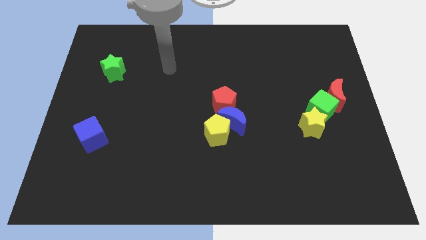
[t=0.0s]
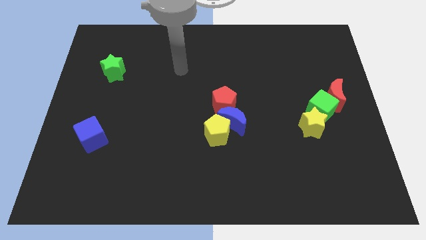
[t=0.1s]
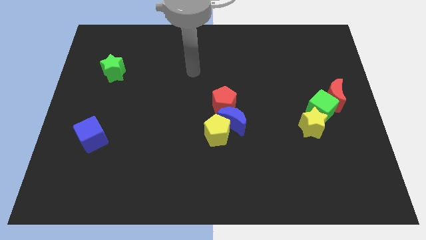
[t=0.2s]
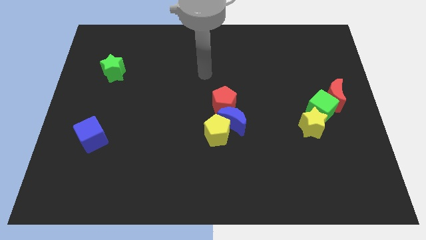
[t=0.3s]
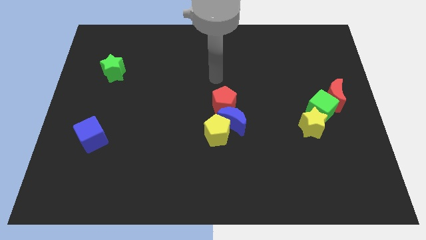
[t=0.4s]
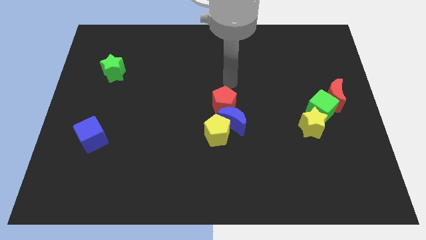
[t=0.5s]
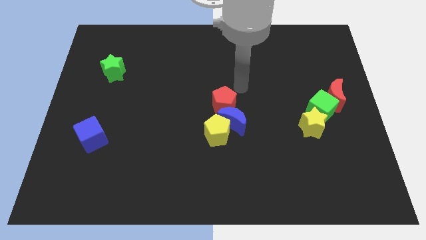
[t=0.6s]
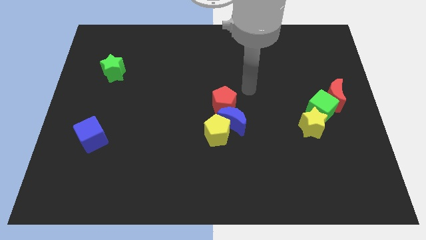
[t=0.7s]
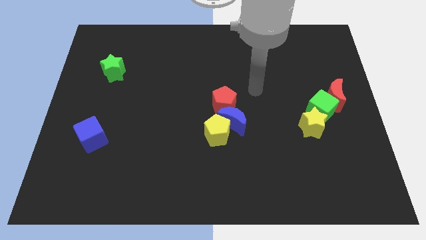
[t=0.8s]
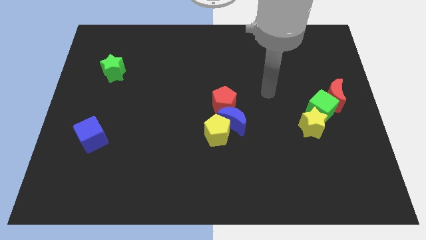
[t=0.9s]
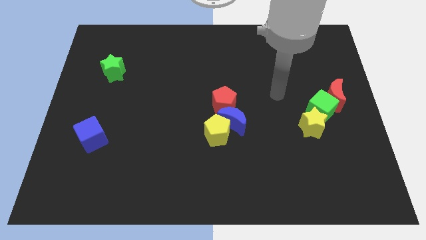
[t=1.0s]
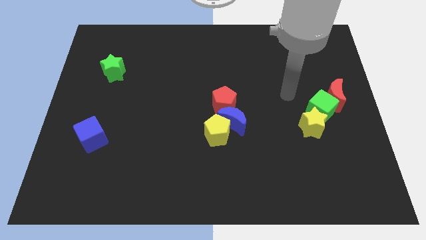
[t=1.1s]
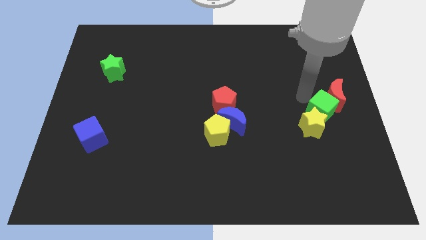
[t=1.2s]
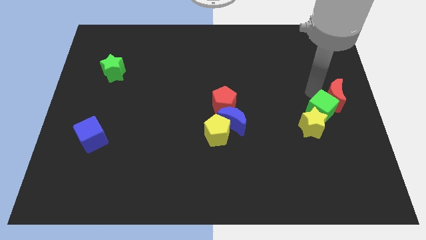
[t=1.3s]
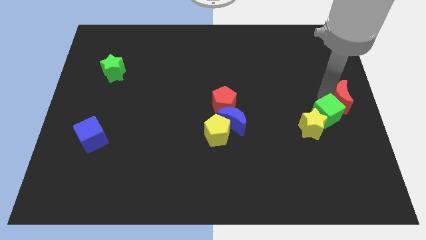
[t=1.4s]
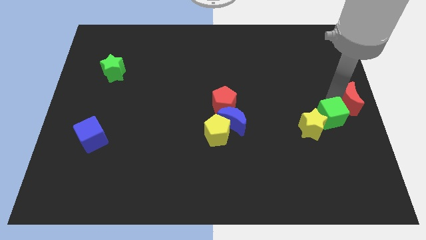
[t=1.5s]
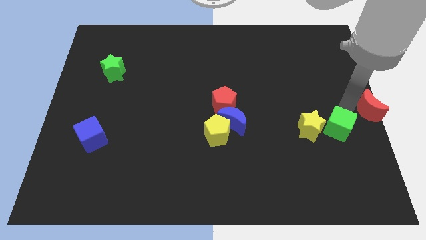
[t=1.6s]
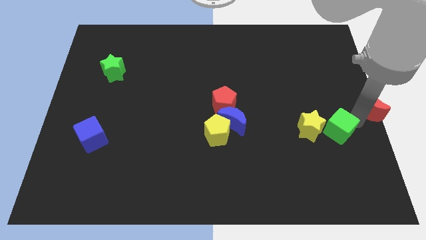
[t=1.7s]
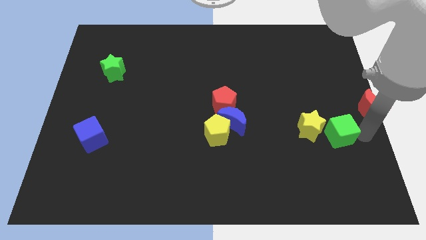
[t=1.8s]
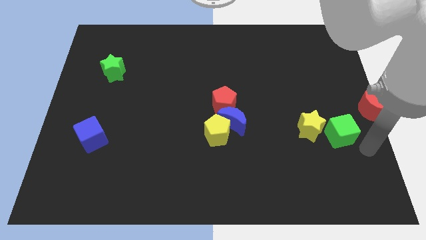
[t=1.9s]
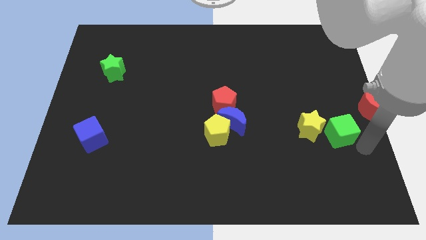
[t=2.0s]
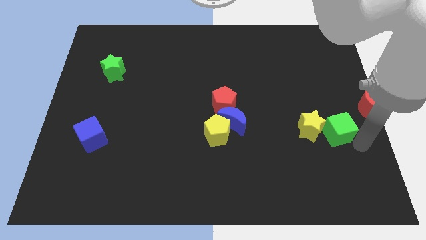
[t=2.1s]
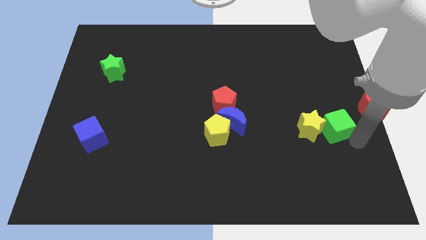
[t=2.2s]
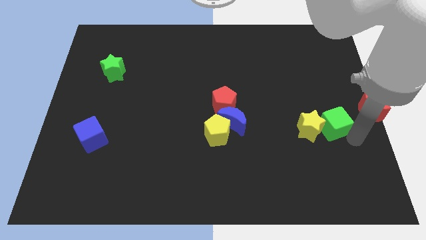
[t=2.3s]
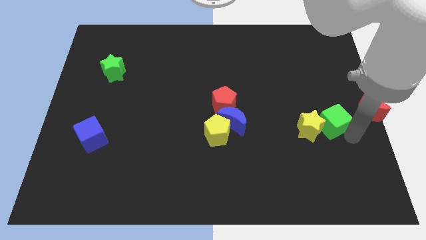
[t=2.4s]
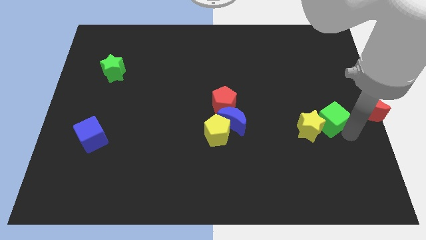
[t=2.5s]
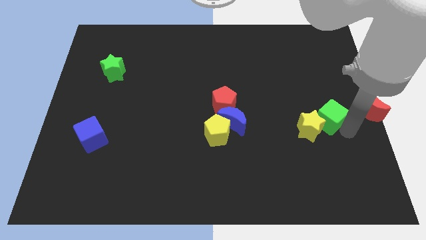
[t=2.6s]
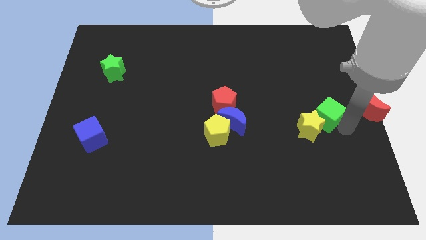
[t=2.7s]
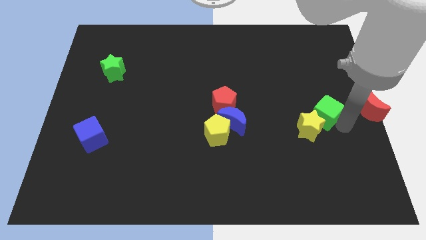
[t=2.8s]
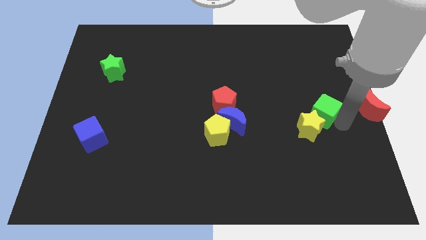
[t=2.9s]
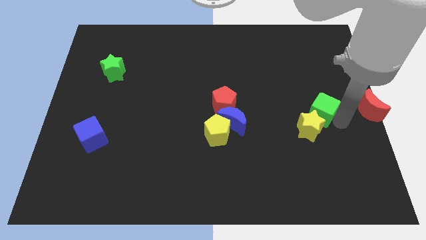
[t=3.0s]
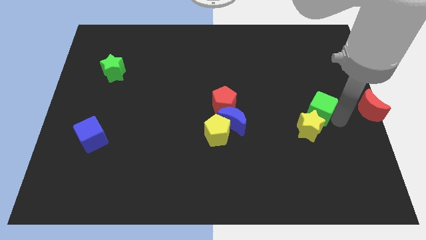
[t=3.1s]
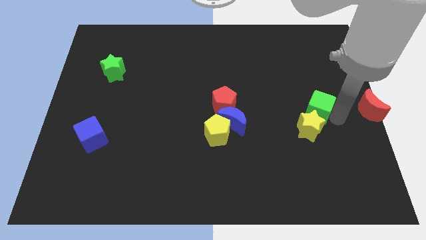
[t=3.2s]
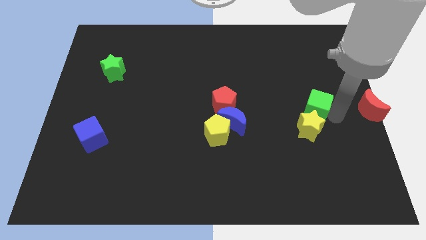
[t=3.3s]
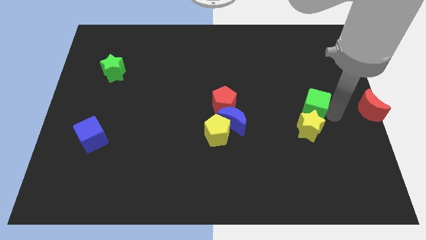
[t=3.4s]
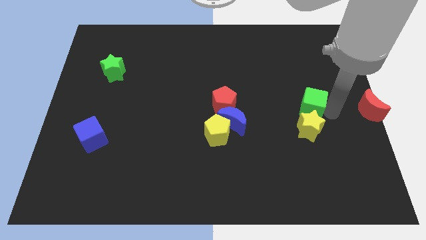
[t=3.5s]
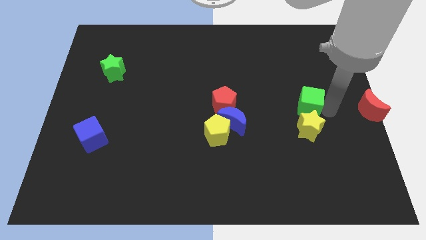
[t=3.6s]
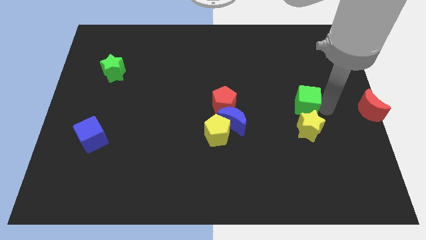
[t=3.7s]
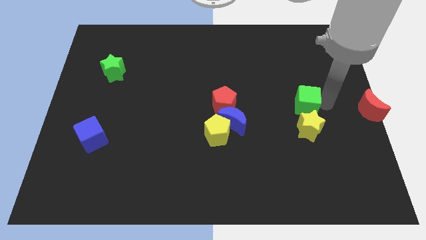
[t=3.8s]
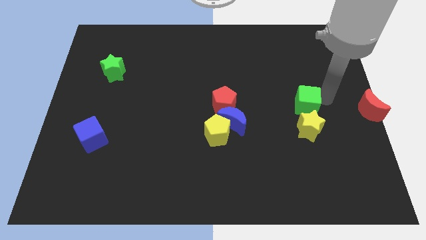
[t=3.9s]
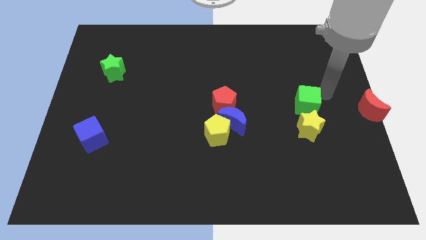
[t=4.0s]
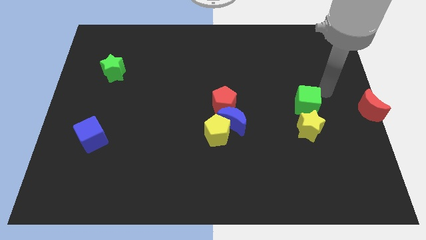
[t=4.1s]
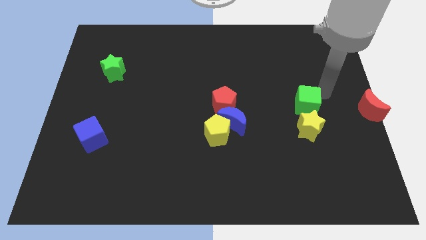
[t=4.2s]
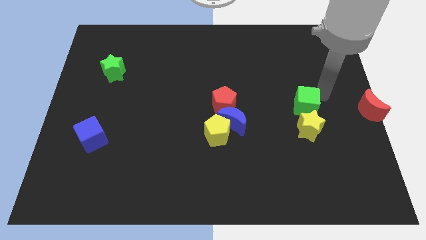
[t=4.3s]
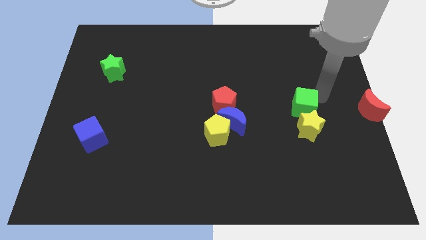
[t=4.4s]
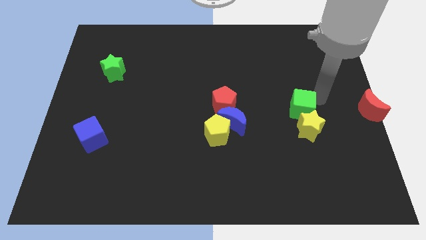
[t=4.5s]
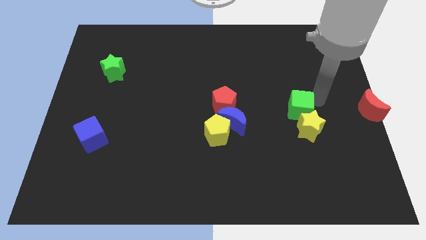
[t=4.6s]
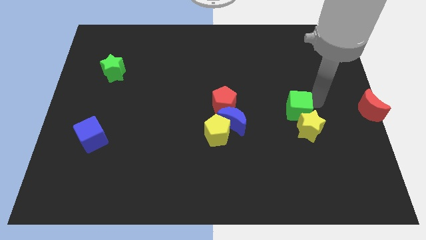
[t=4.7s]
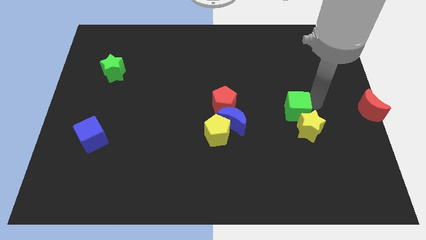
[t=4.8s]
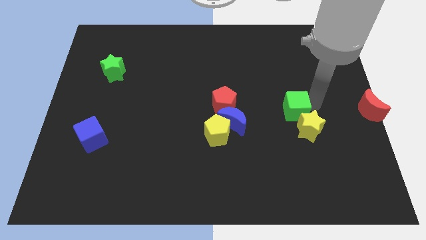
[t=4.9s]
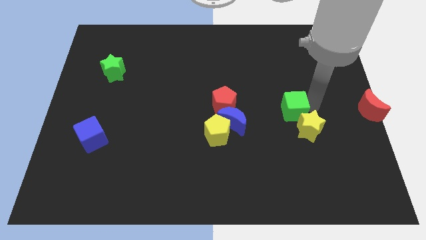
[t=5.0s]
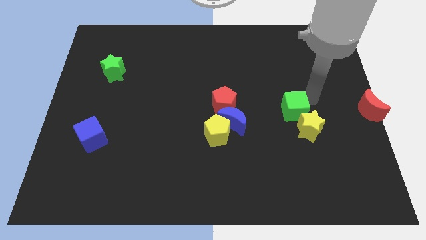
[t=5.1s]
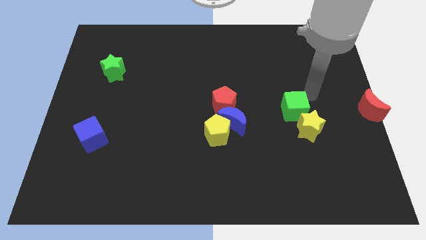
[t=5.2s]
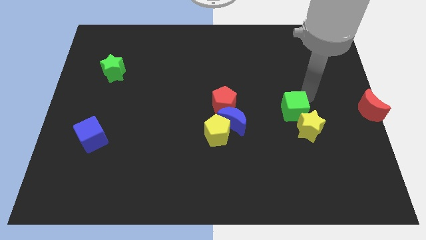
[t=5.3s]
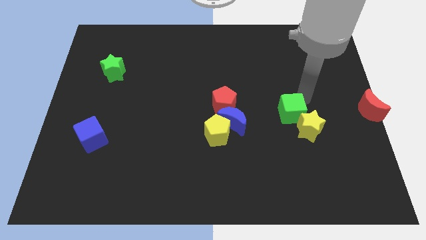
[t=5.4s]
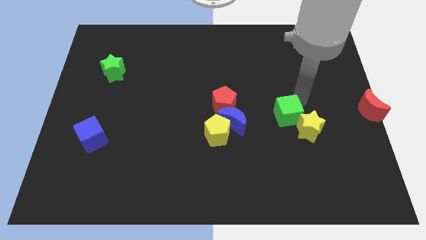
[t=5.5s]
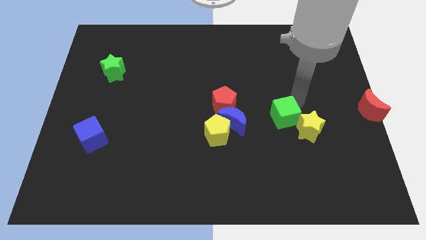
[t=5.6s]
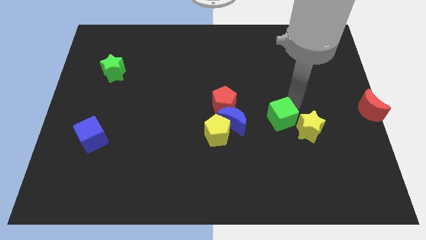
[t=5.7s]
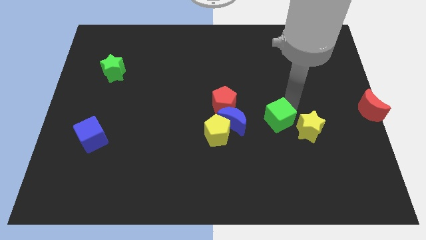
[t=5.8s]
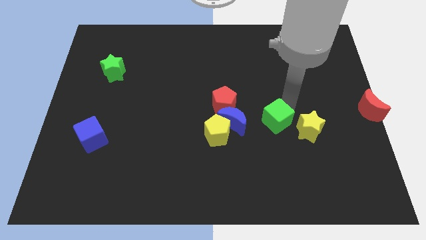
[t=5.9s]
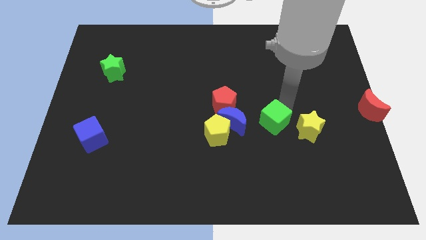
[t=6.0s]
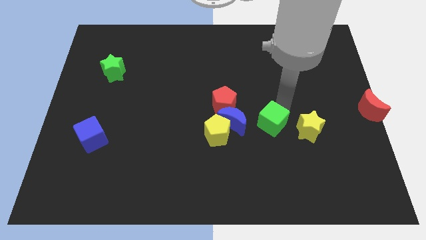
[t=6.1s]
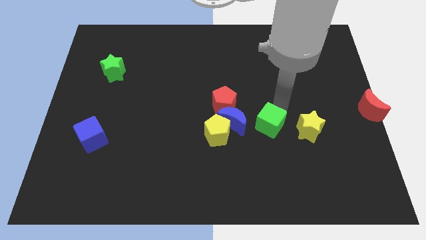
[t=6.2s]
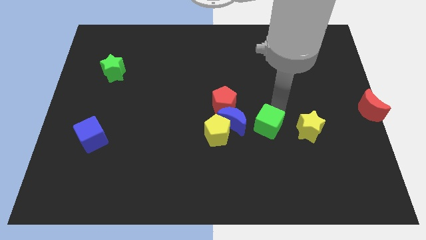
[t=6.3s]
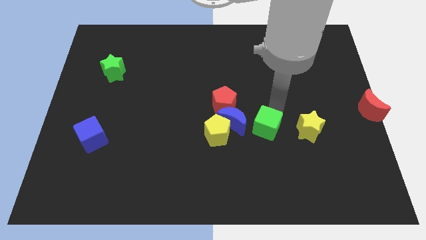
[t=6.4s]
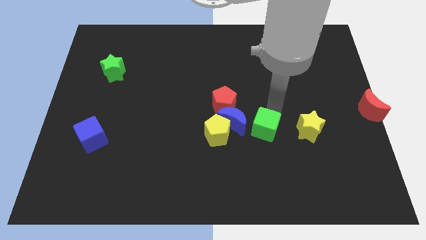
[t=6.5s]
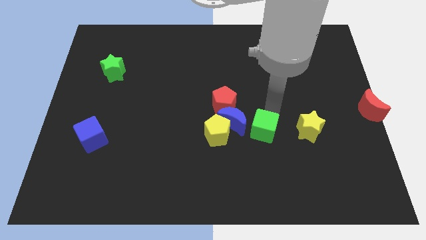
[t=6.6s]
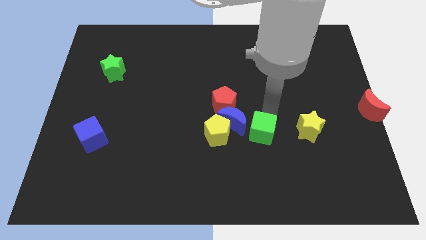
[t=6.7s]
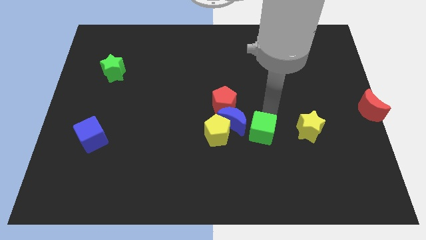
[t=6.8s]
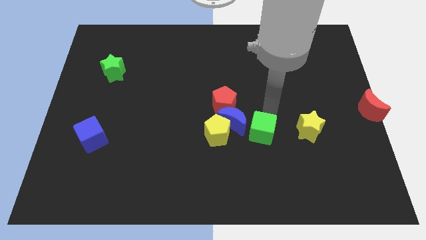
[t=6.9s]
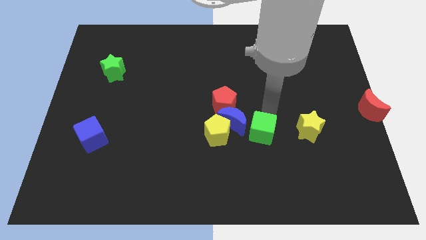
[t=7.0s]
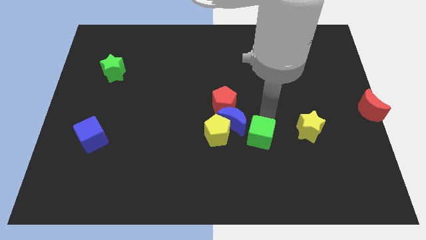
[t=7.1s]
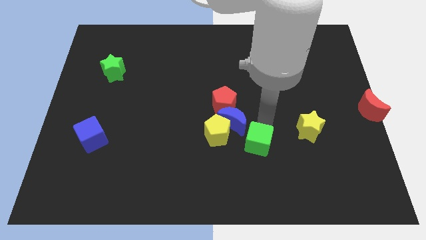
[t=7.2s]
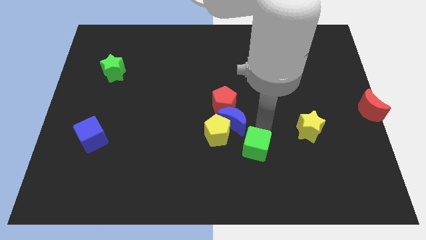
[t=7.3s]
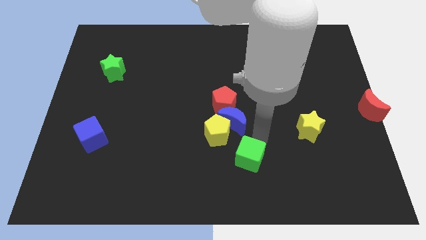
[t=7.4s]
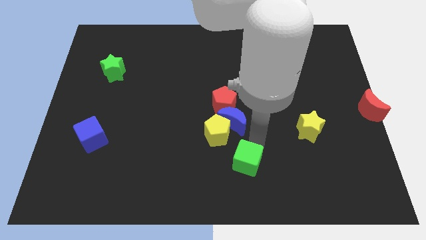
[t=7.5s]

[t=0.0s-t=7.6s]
push the green cube to the bottom
